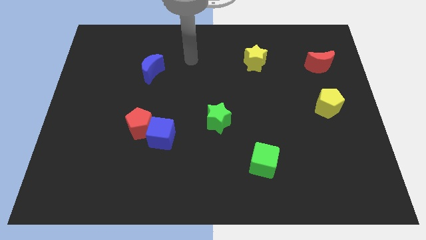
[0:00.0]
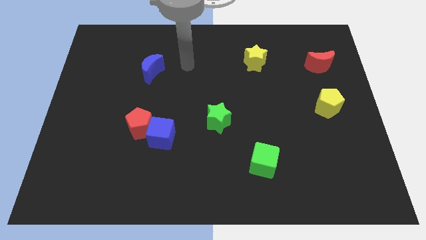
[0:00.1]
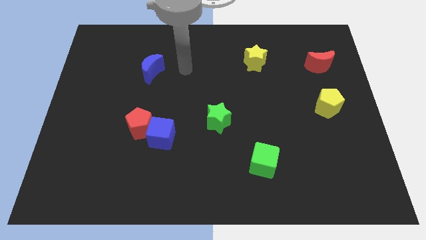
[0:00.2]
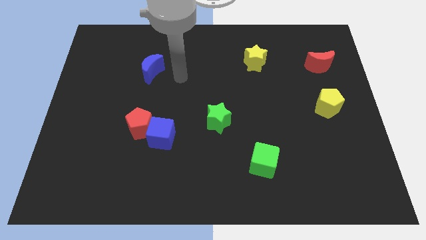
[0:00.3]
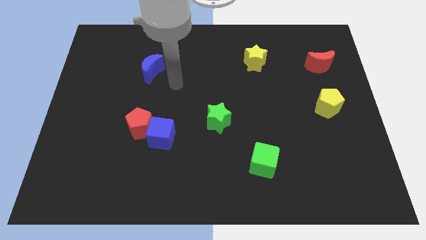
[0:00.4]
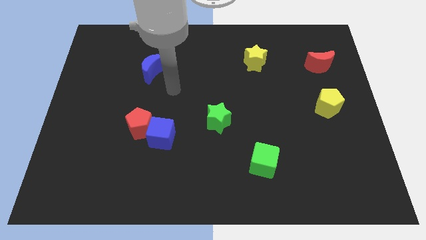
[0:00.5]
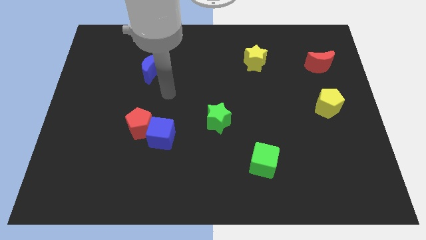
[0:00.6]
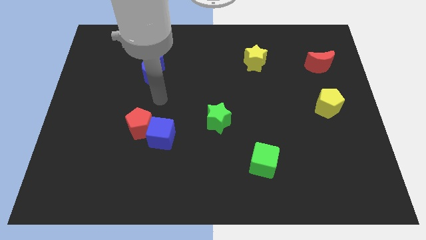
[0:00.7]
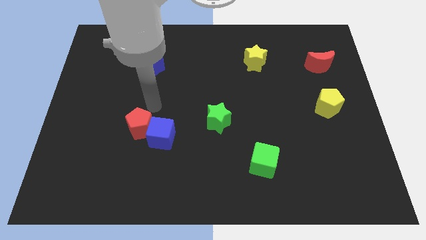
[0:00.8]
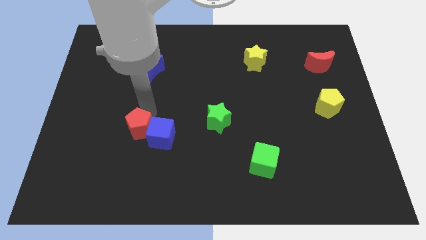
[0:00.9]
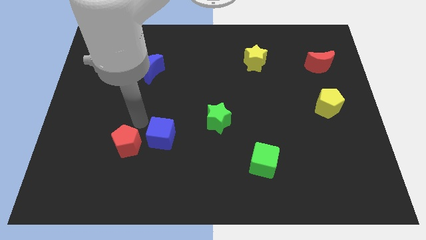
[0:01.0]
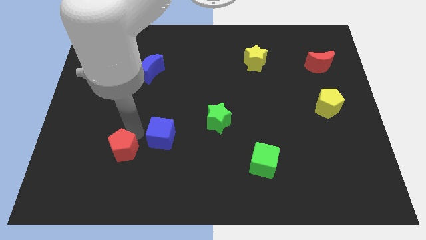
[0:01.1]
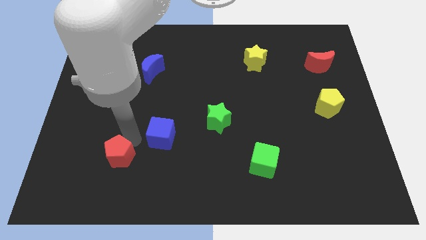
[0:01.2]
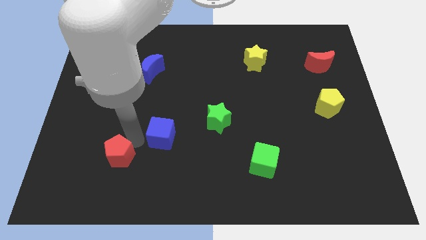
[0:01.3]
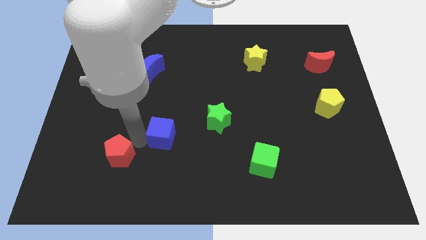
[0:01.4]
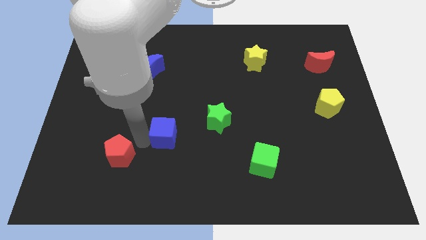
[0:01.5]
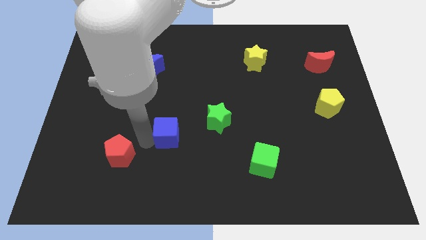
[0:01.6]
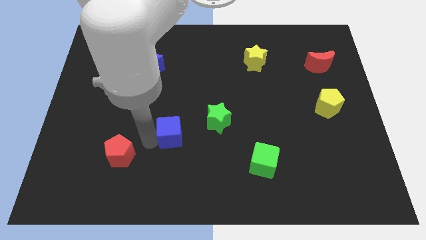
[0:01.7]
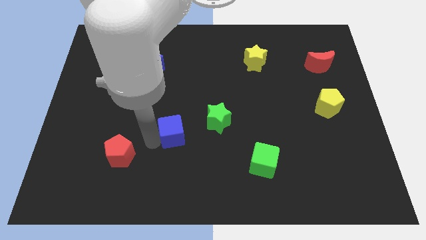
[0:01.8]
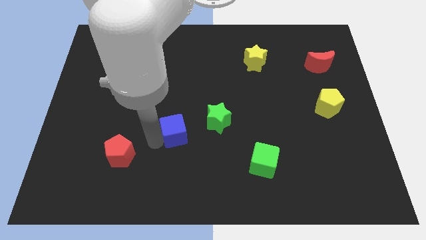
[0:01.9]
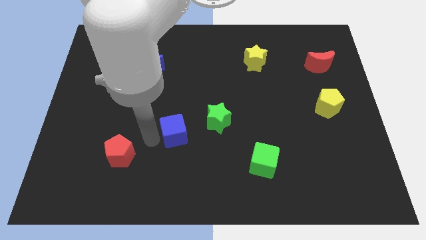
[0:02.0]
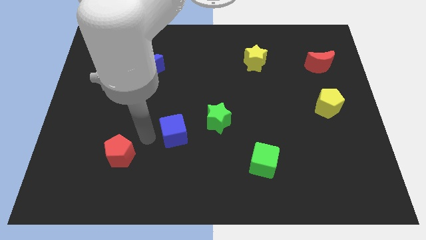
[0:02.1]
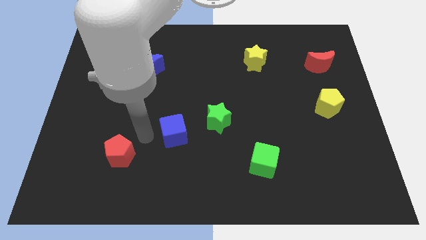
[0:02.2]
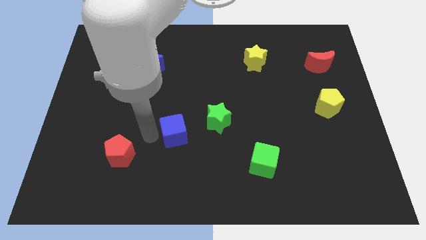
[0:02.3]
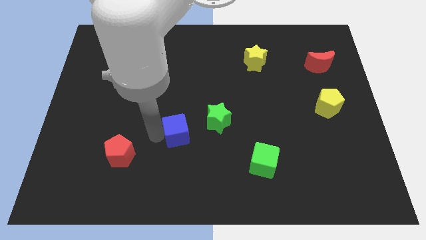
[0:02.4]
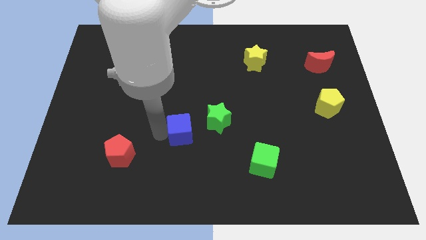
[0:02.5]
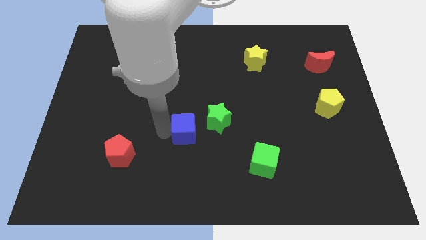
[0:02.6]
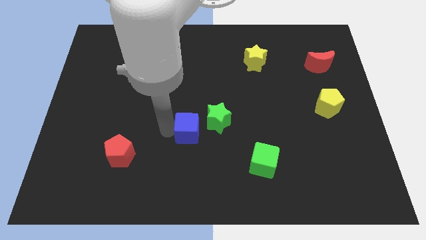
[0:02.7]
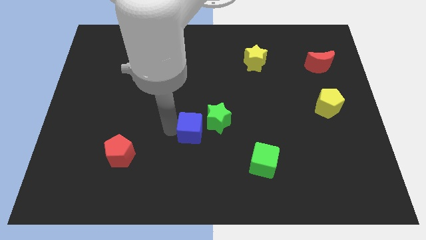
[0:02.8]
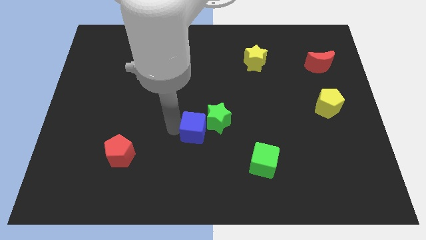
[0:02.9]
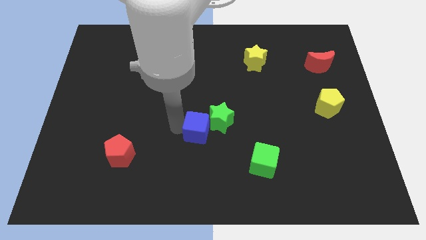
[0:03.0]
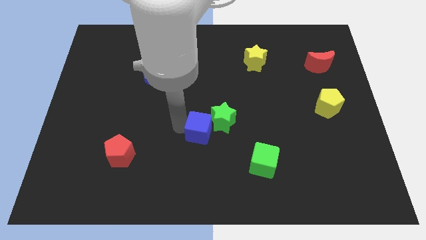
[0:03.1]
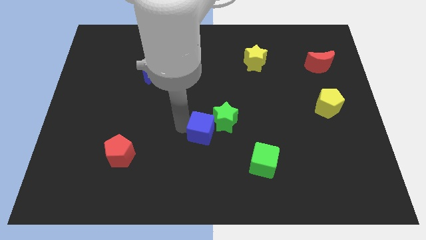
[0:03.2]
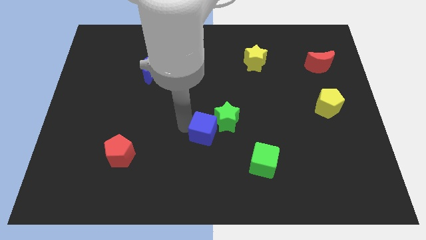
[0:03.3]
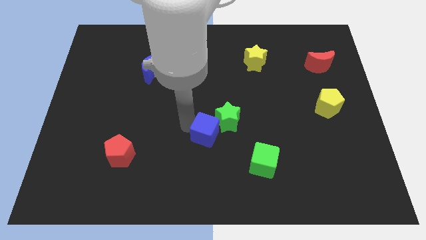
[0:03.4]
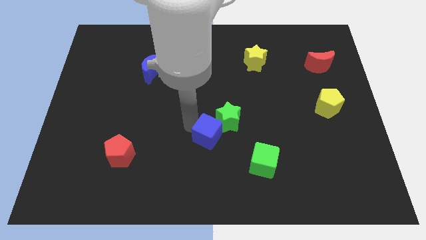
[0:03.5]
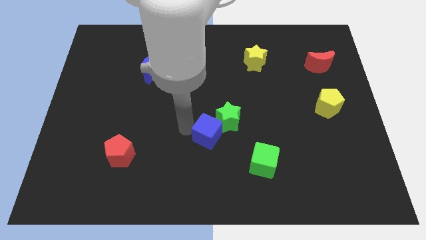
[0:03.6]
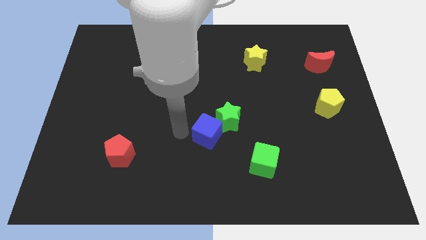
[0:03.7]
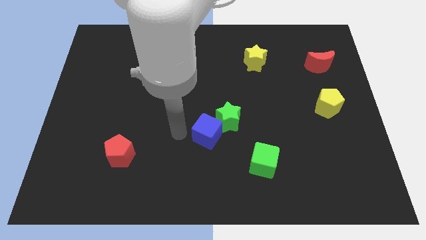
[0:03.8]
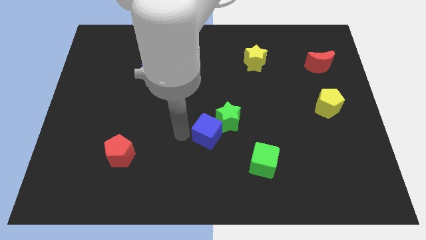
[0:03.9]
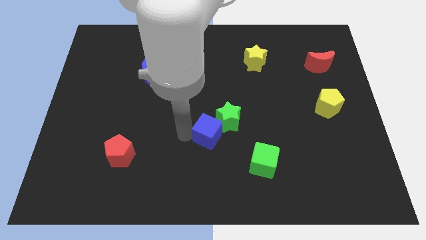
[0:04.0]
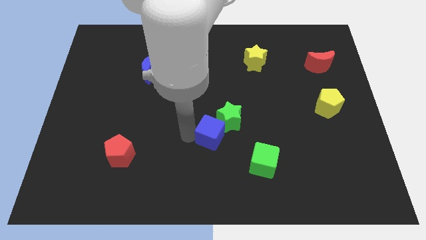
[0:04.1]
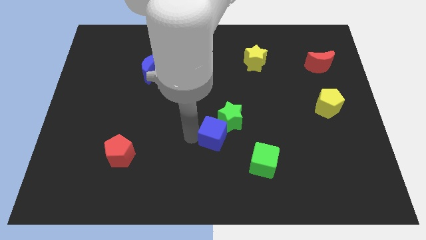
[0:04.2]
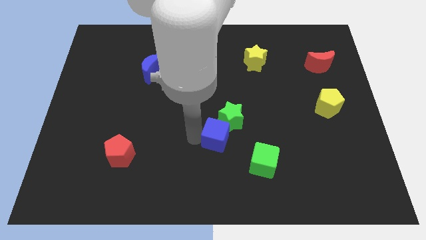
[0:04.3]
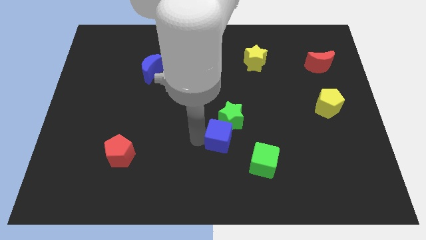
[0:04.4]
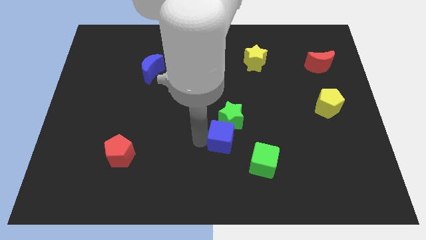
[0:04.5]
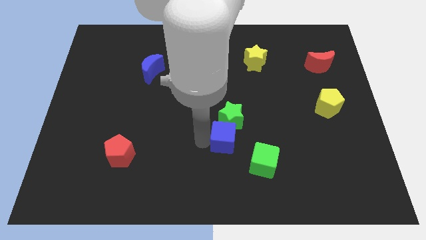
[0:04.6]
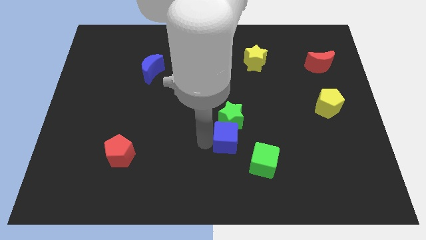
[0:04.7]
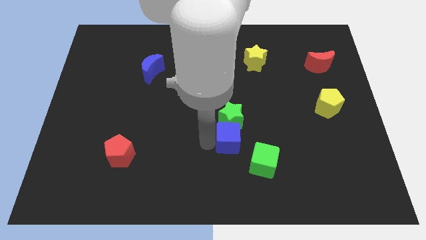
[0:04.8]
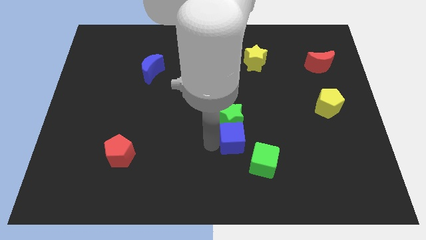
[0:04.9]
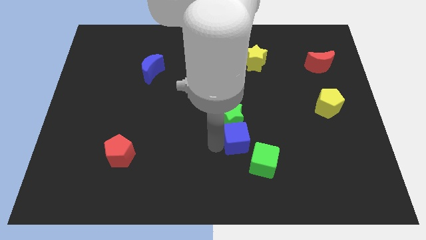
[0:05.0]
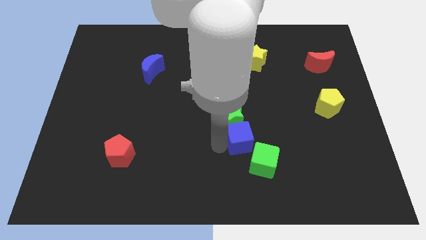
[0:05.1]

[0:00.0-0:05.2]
move the blue cube above the green cube
